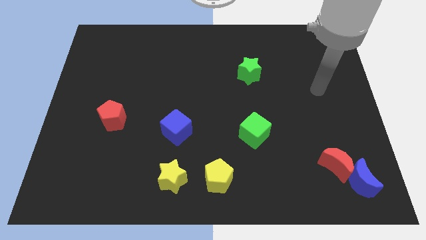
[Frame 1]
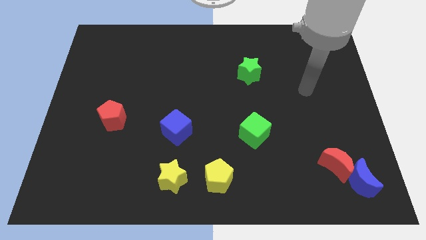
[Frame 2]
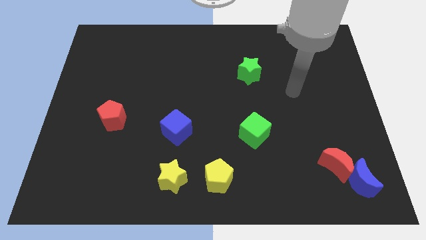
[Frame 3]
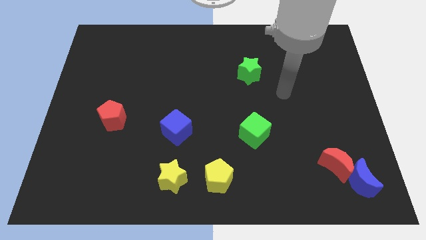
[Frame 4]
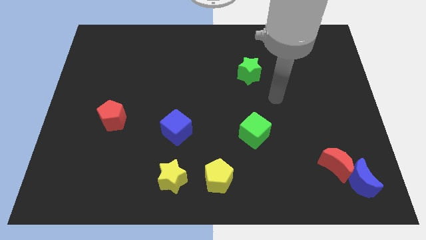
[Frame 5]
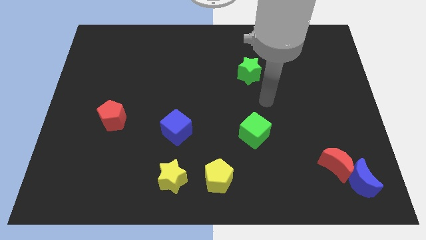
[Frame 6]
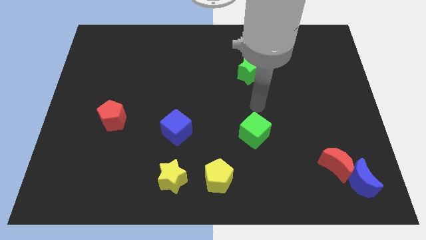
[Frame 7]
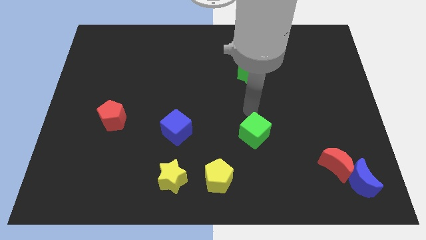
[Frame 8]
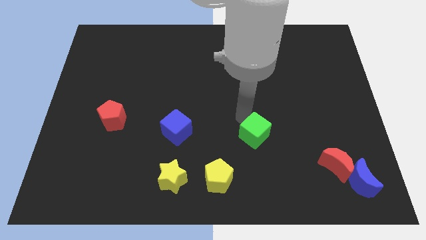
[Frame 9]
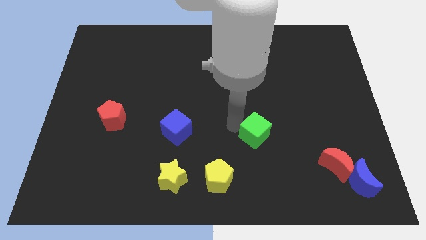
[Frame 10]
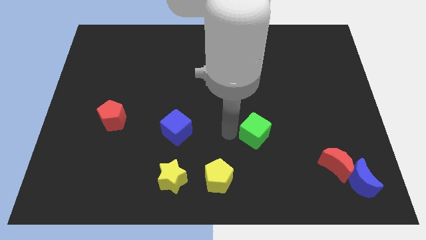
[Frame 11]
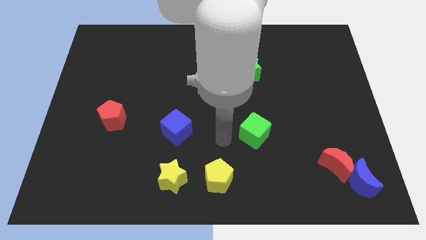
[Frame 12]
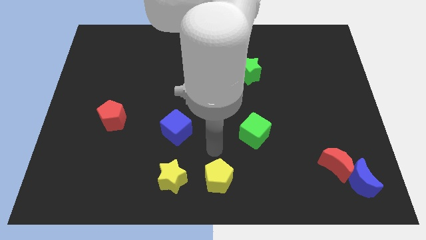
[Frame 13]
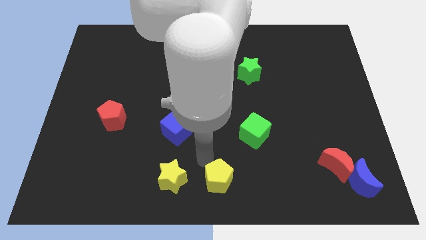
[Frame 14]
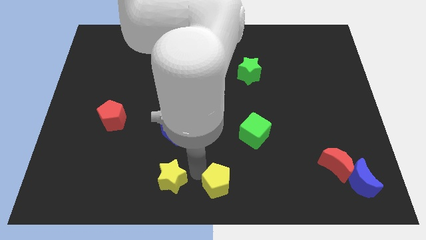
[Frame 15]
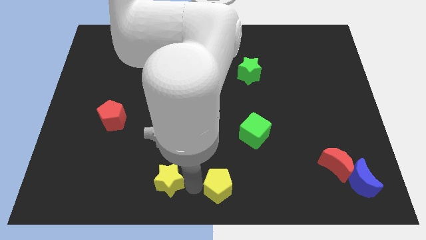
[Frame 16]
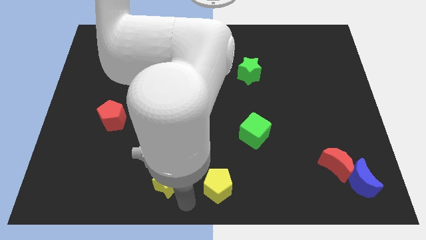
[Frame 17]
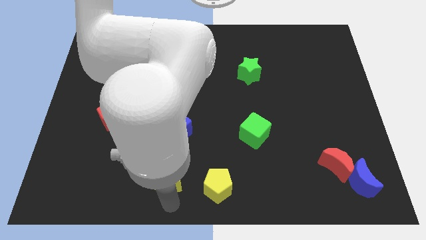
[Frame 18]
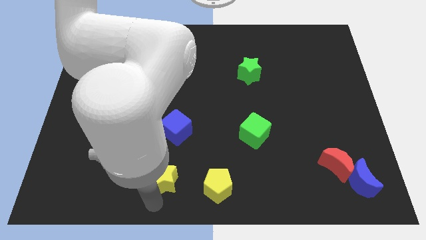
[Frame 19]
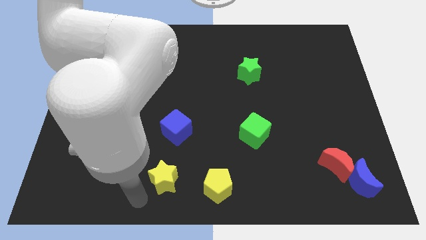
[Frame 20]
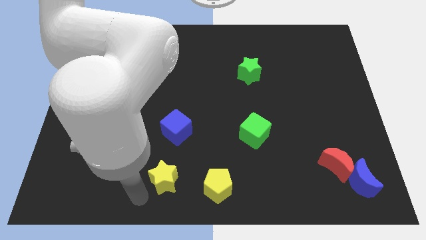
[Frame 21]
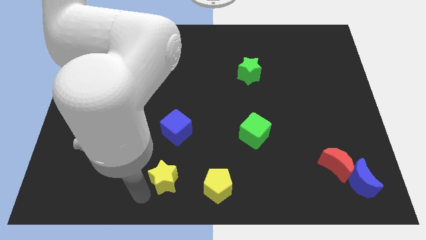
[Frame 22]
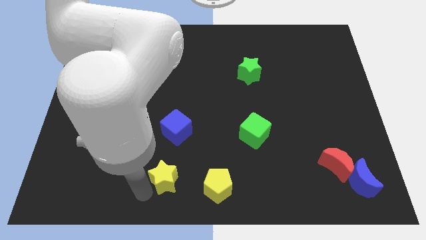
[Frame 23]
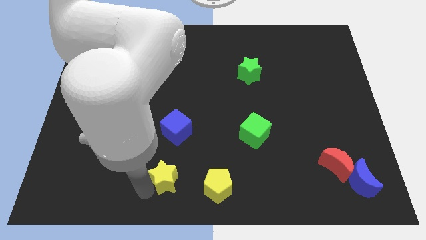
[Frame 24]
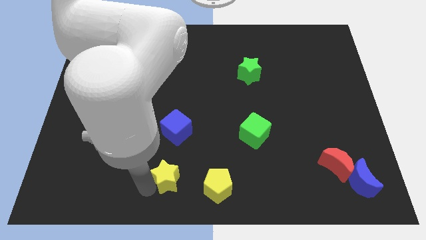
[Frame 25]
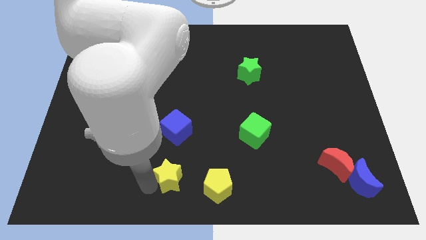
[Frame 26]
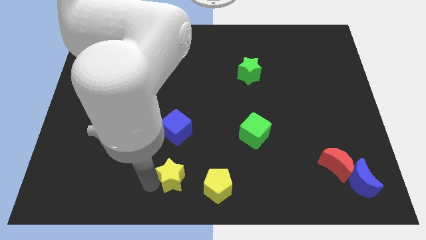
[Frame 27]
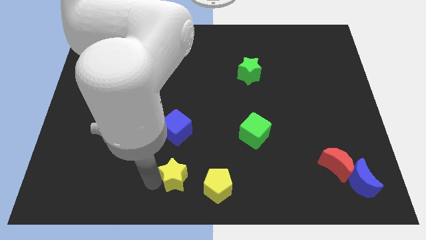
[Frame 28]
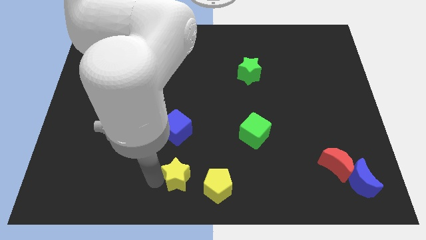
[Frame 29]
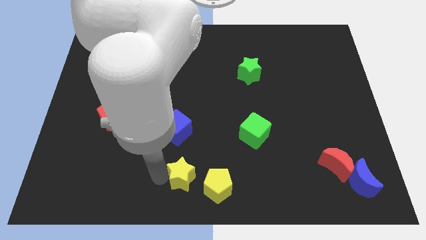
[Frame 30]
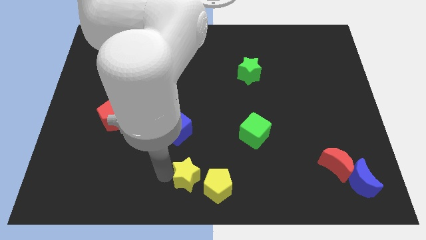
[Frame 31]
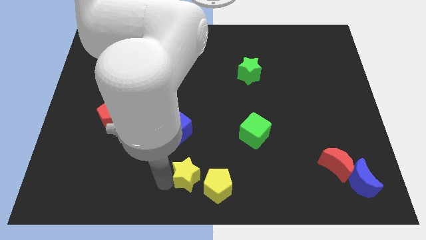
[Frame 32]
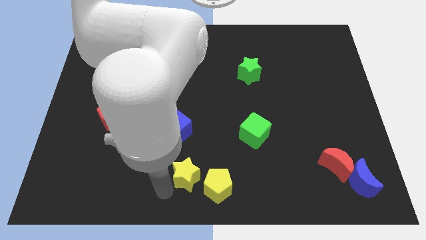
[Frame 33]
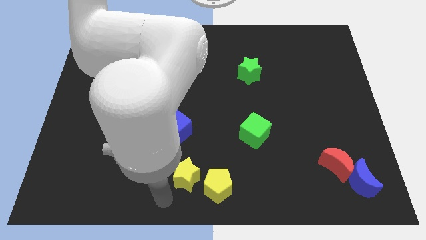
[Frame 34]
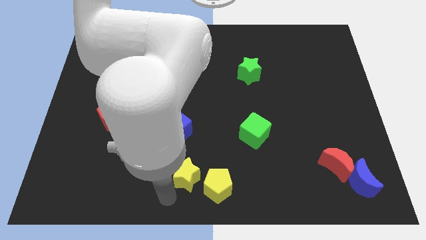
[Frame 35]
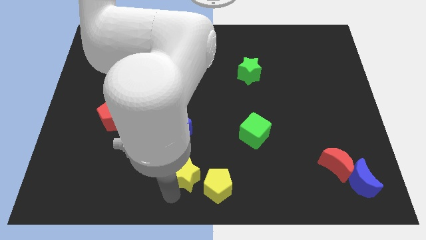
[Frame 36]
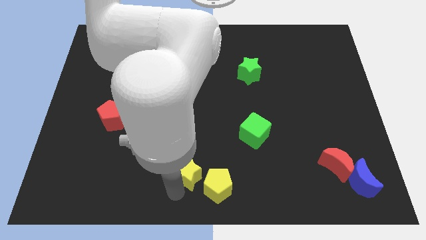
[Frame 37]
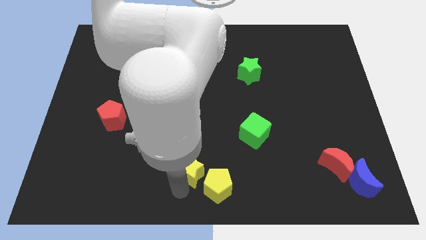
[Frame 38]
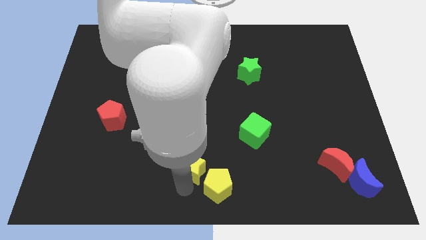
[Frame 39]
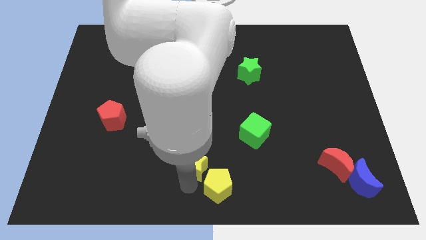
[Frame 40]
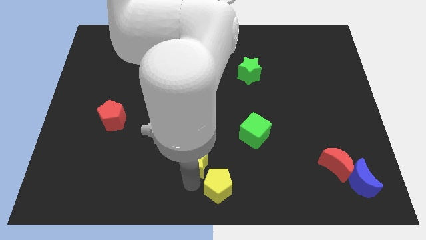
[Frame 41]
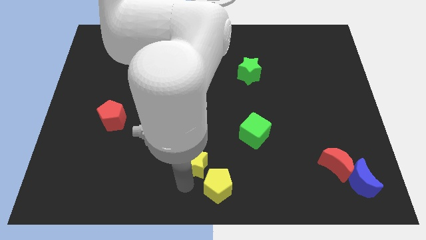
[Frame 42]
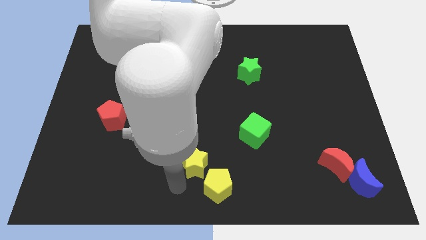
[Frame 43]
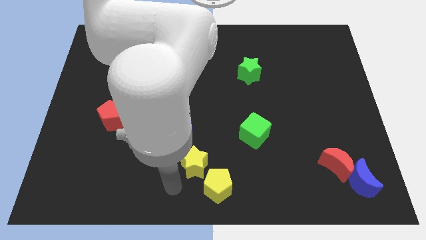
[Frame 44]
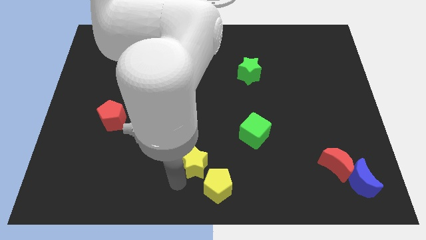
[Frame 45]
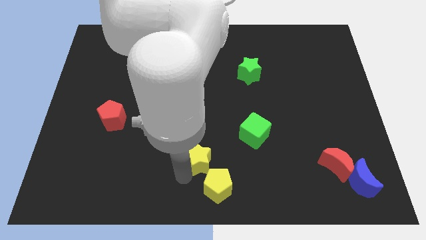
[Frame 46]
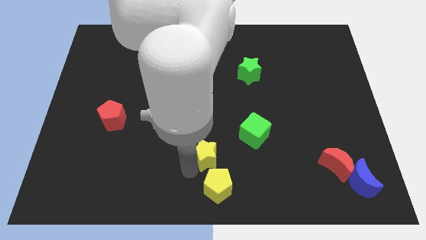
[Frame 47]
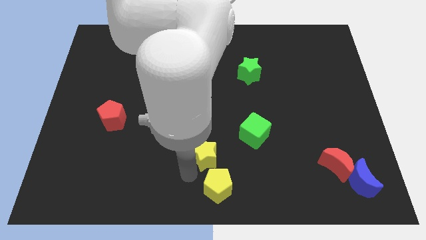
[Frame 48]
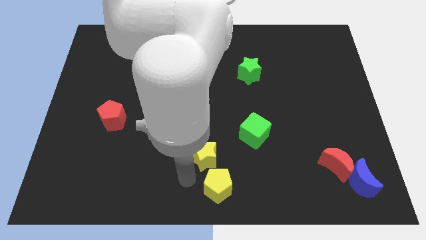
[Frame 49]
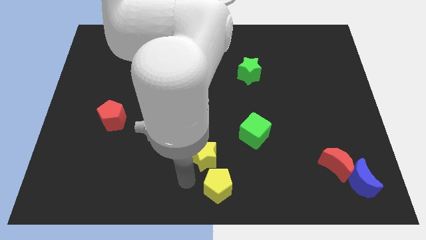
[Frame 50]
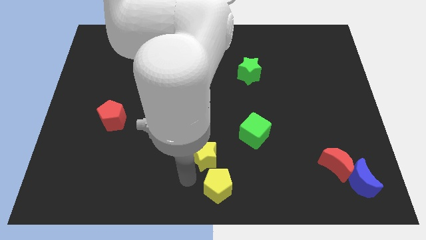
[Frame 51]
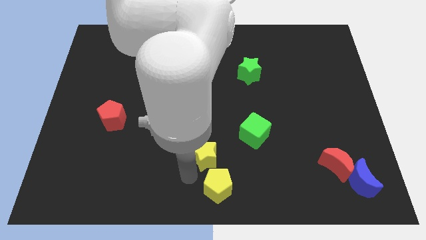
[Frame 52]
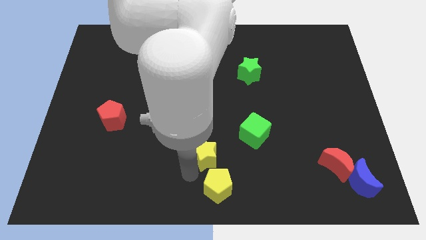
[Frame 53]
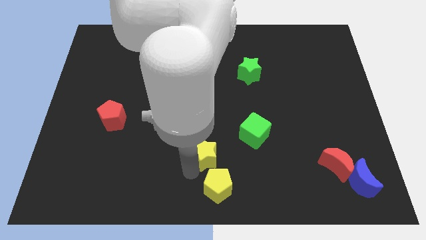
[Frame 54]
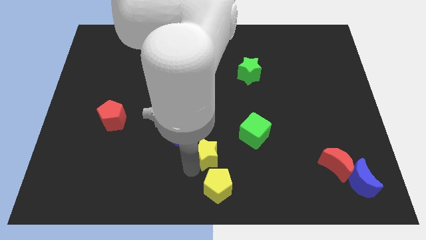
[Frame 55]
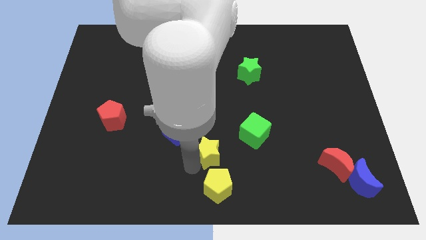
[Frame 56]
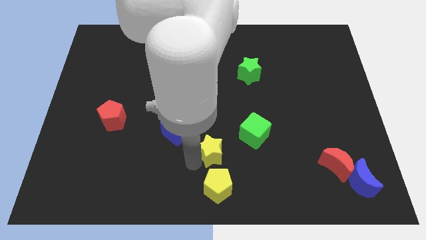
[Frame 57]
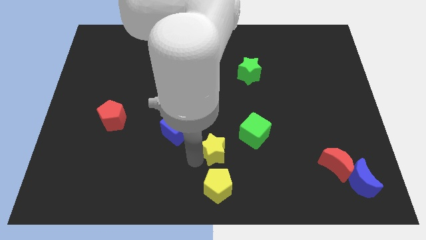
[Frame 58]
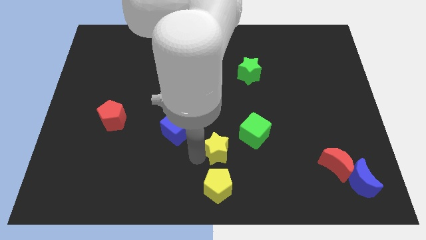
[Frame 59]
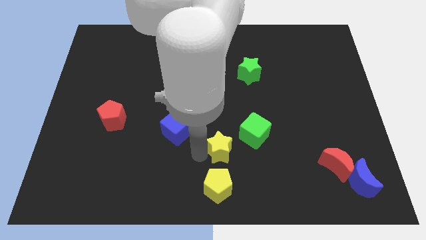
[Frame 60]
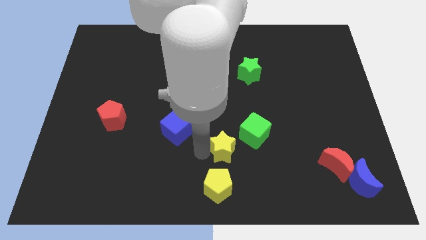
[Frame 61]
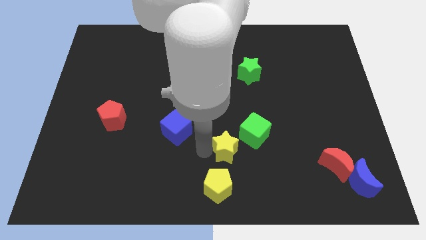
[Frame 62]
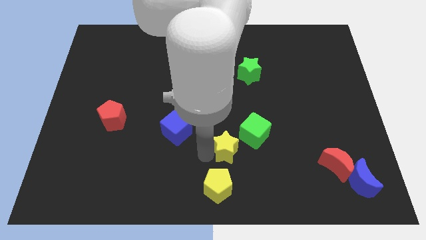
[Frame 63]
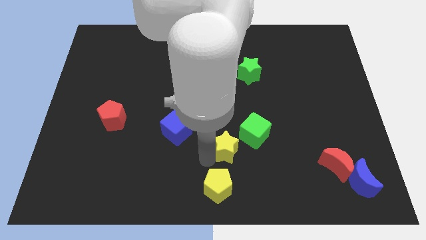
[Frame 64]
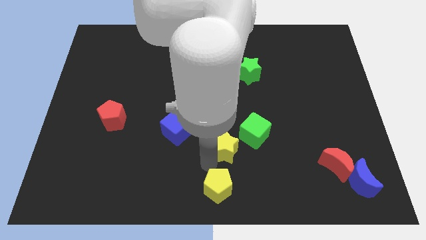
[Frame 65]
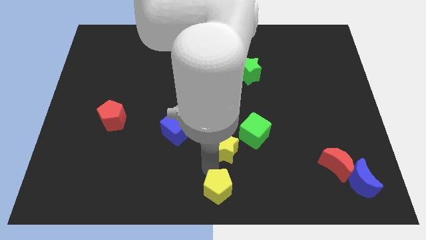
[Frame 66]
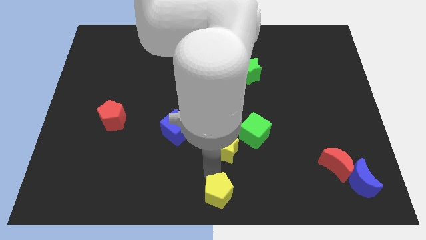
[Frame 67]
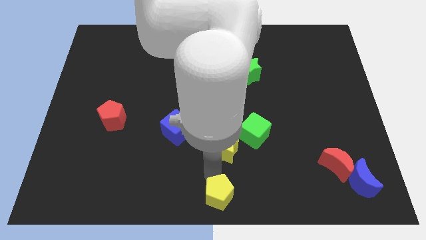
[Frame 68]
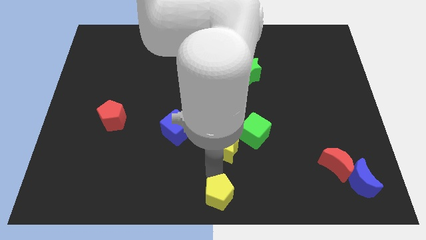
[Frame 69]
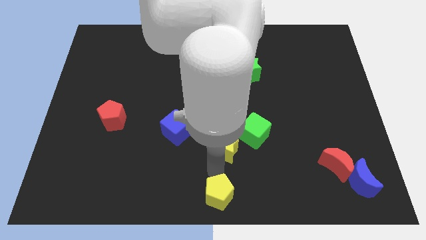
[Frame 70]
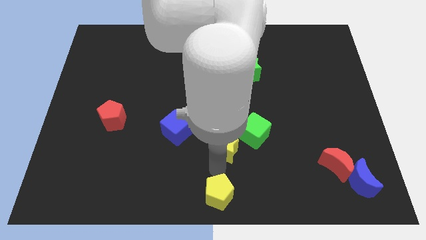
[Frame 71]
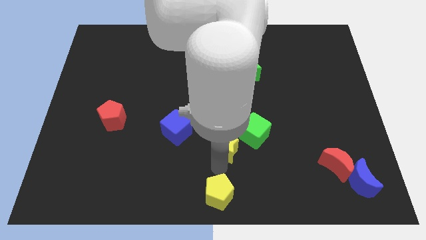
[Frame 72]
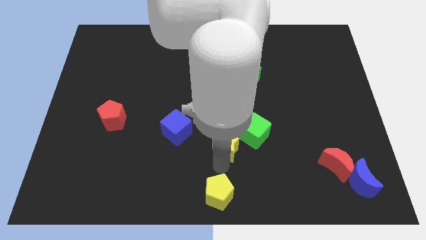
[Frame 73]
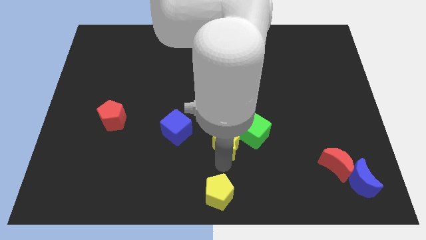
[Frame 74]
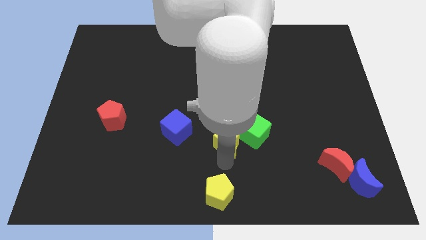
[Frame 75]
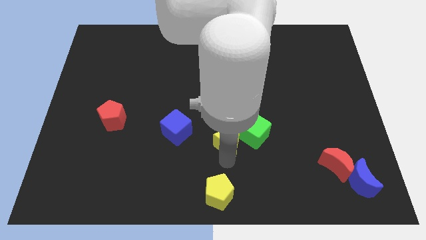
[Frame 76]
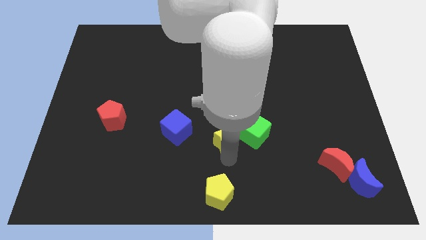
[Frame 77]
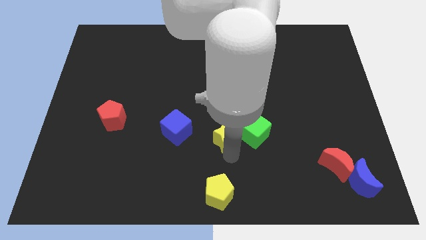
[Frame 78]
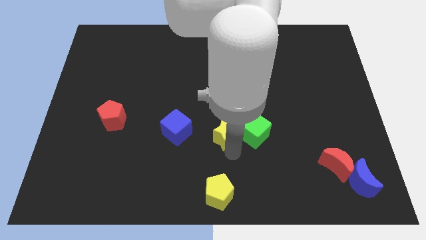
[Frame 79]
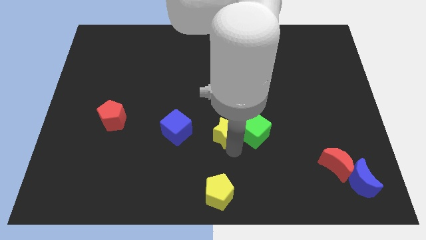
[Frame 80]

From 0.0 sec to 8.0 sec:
push the yellow star to the top left of the green cube
